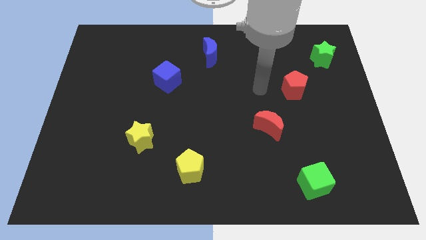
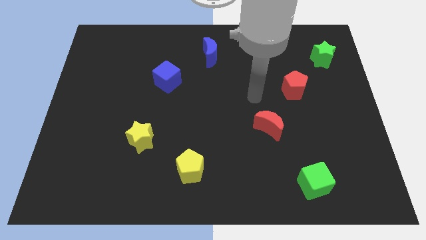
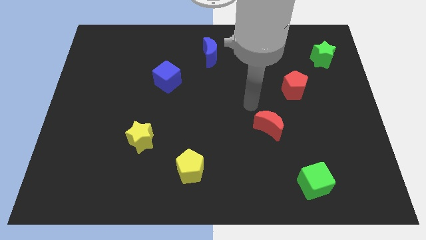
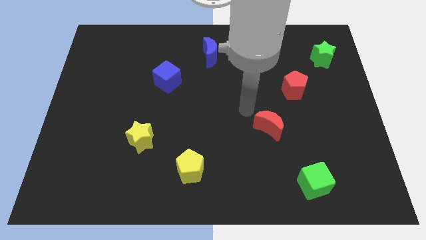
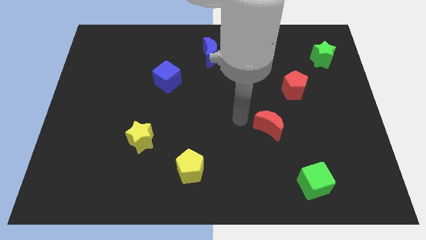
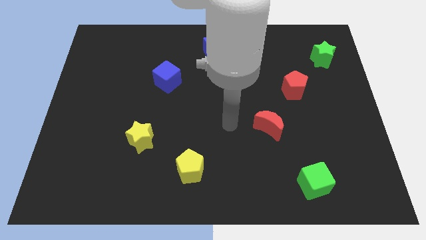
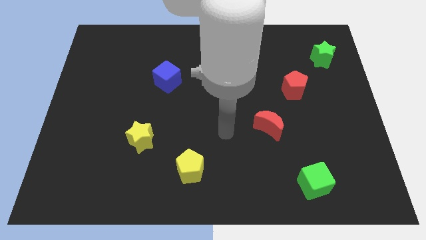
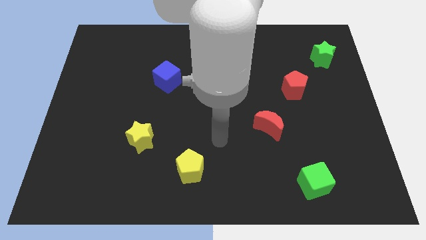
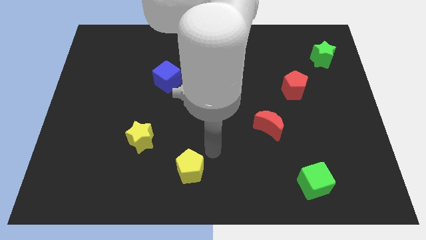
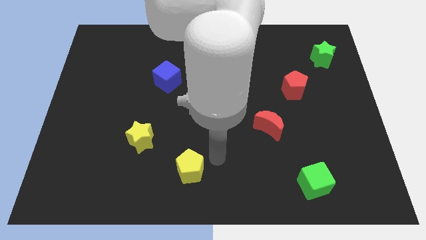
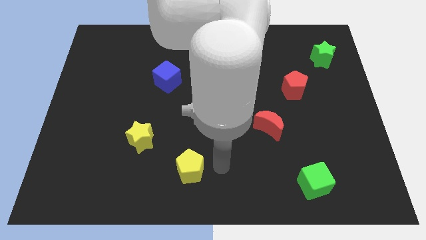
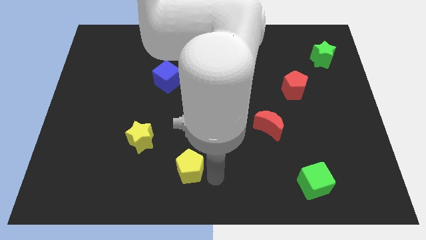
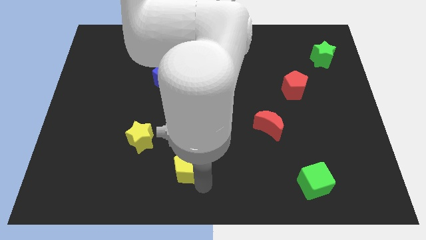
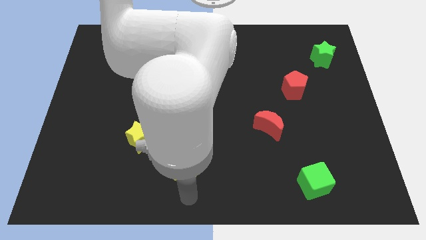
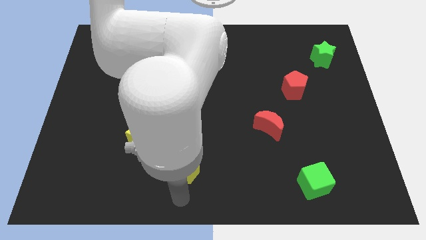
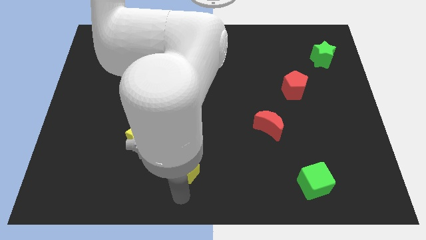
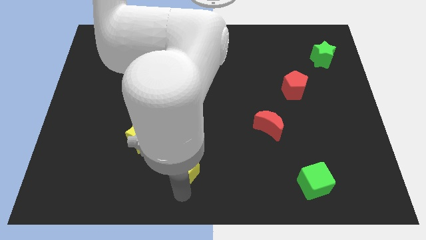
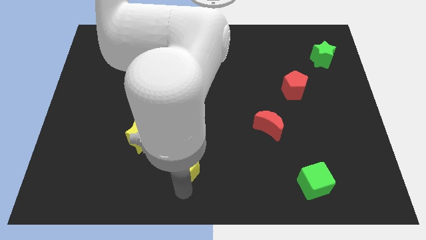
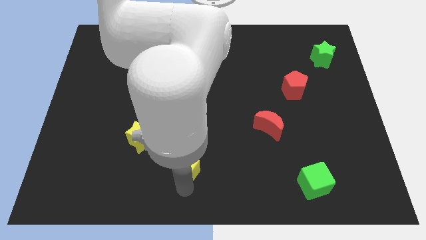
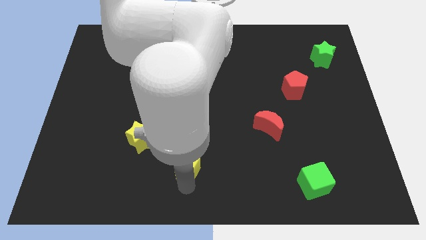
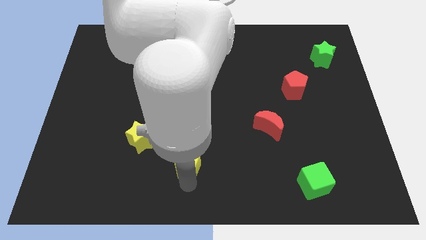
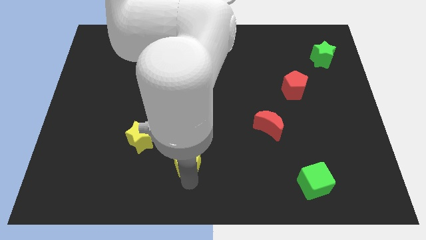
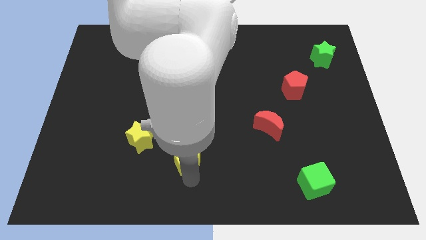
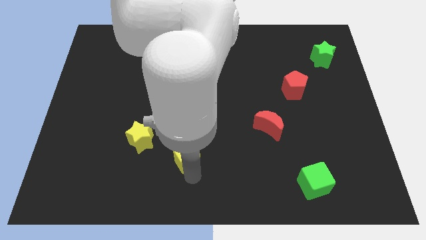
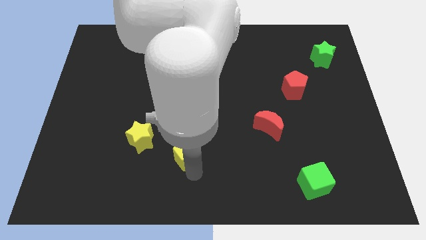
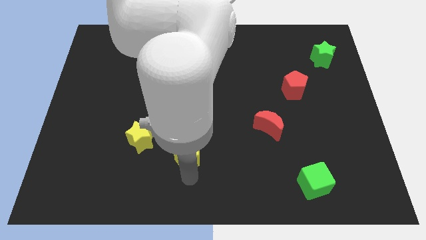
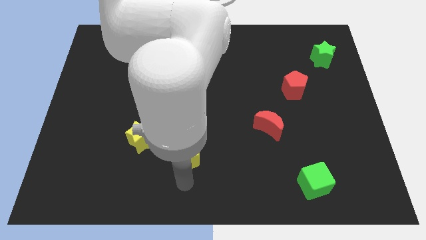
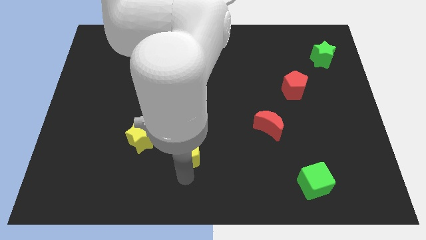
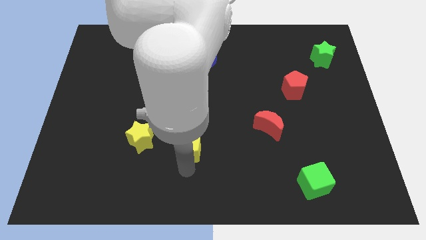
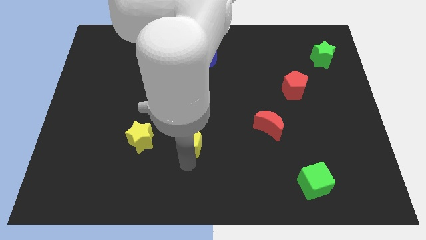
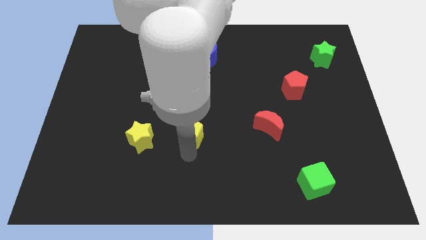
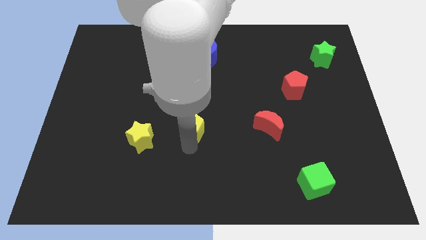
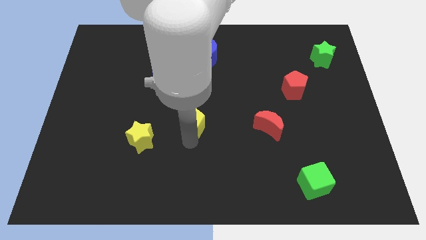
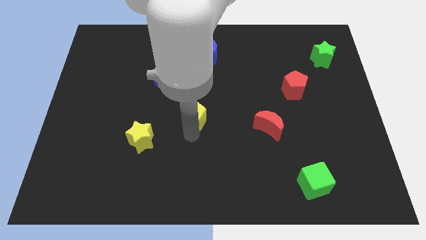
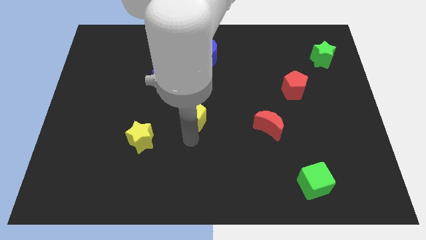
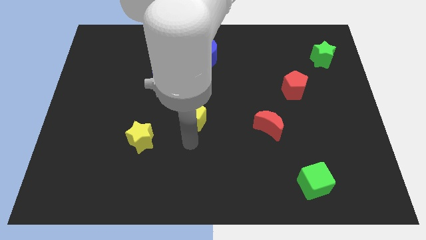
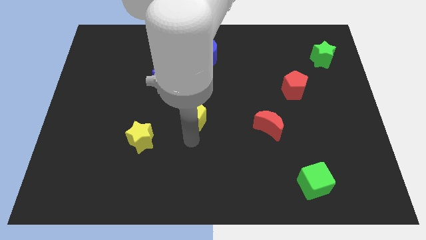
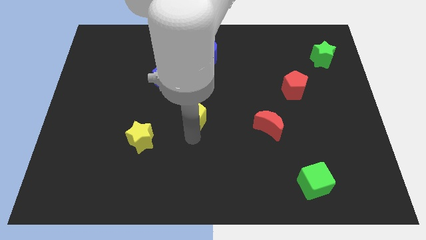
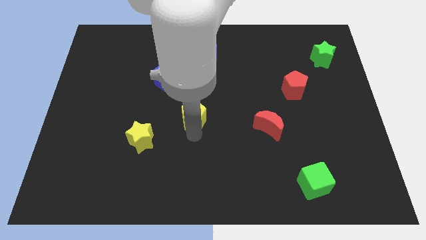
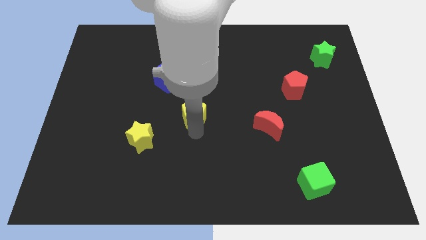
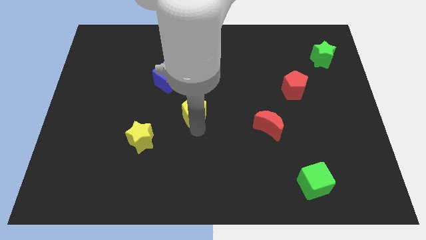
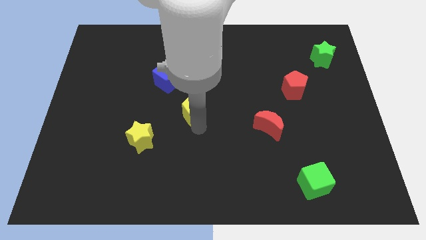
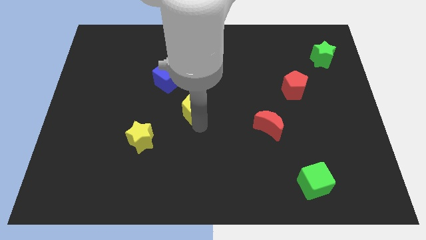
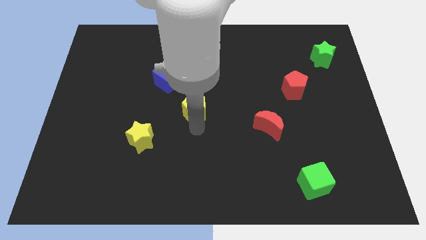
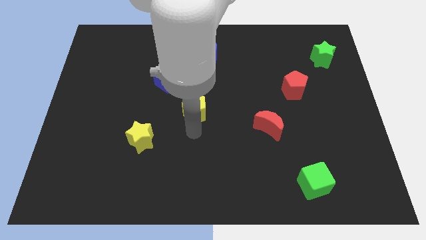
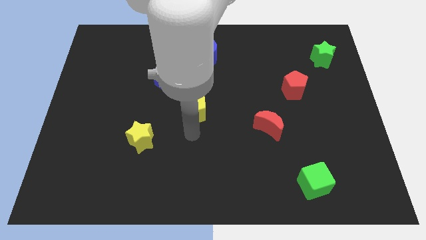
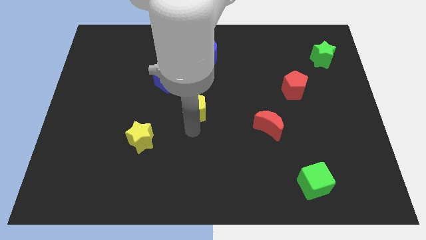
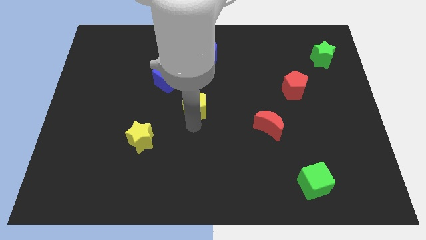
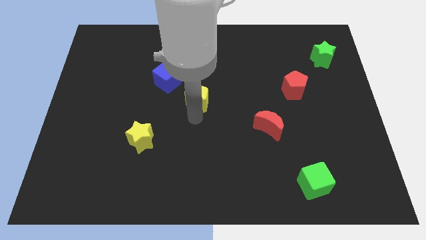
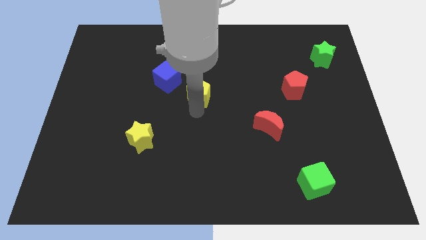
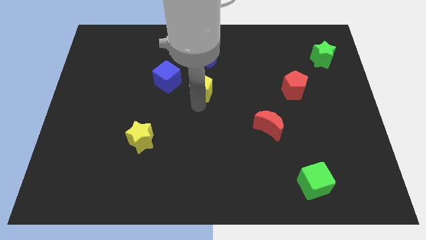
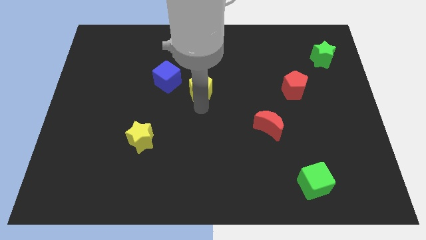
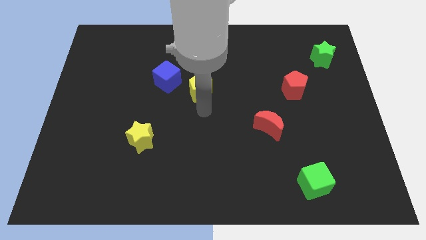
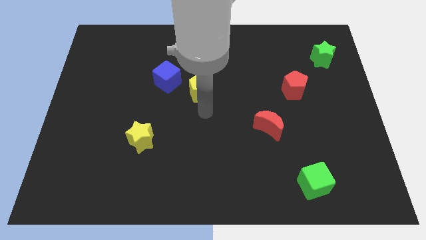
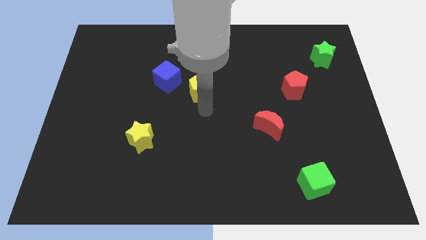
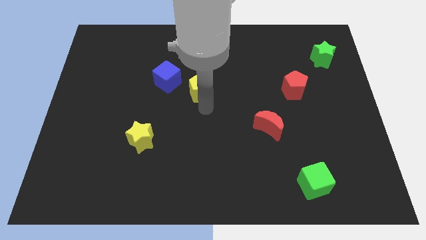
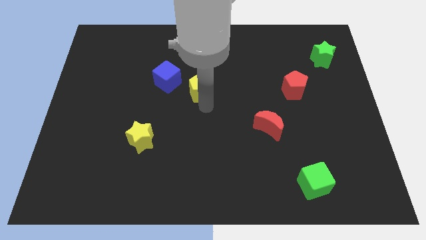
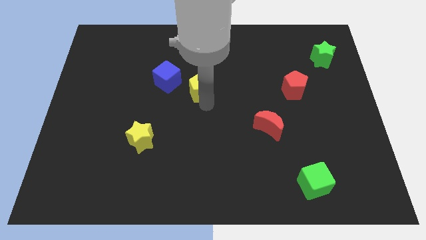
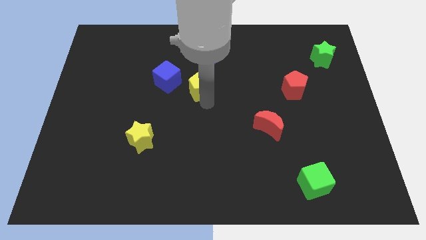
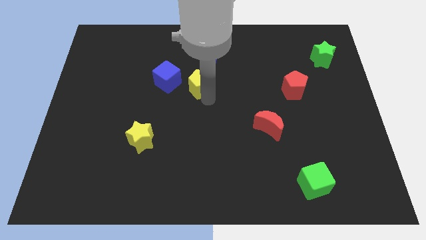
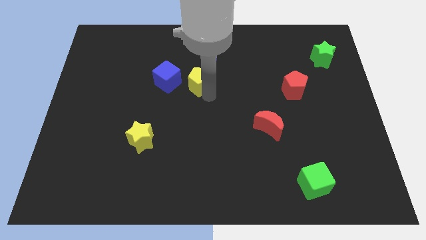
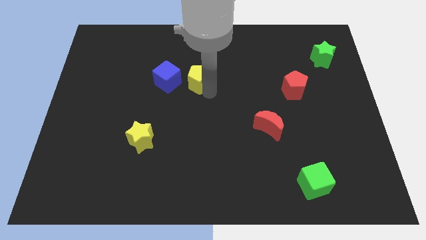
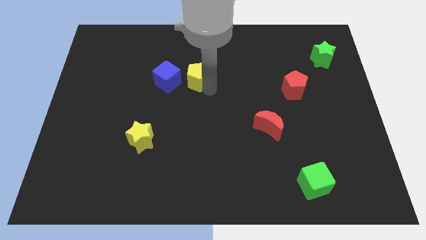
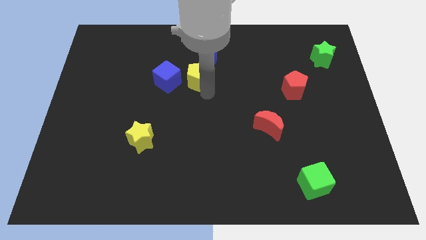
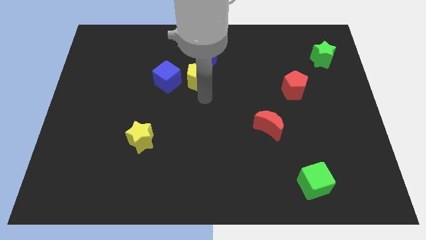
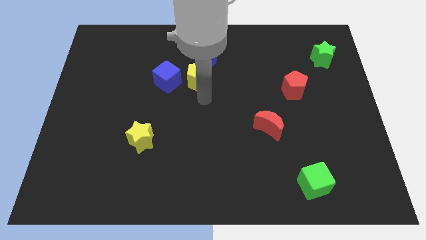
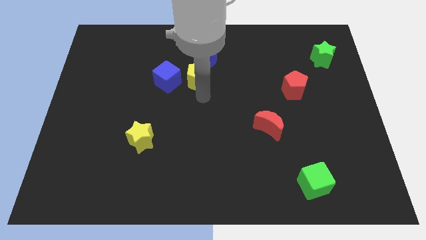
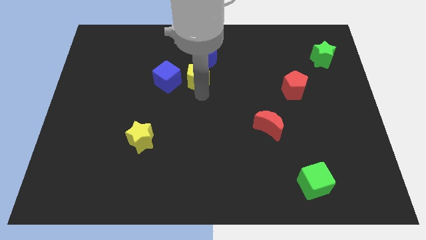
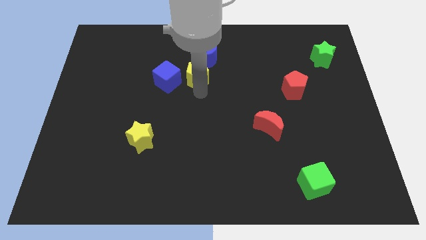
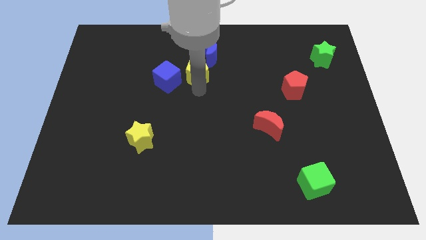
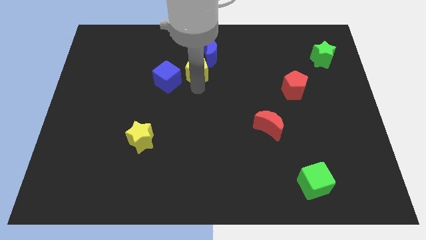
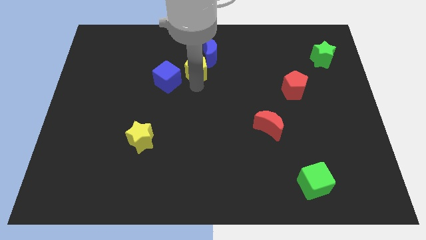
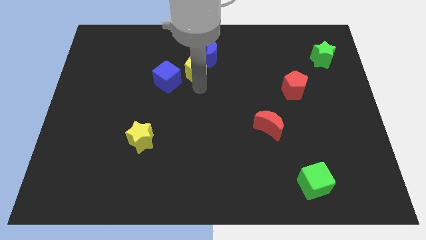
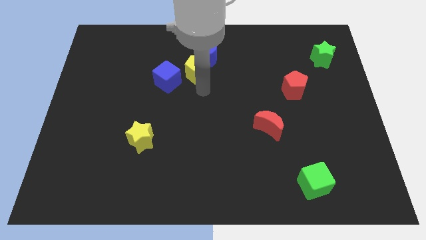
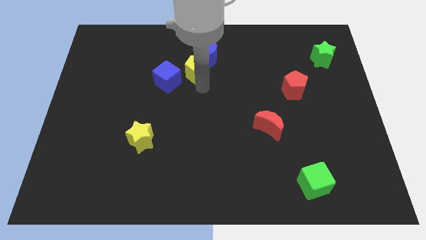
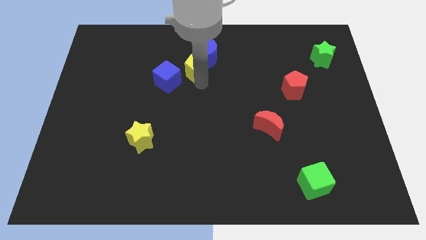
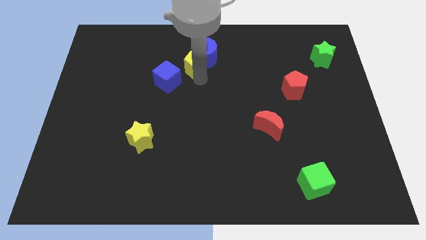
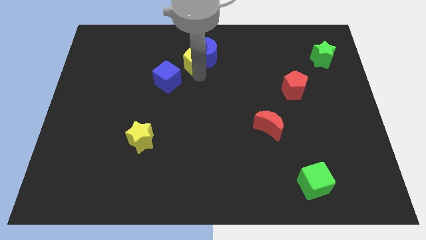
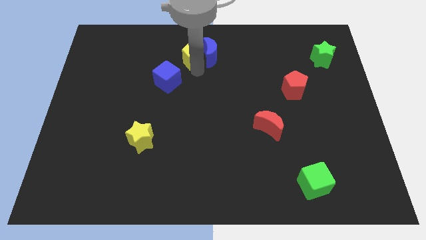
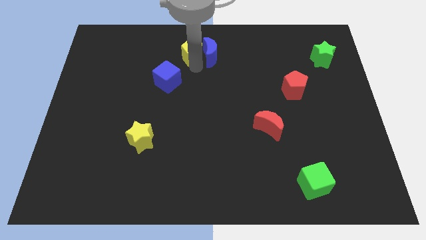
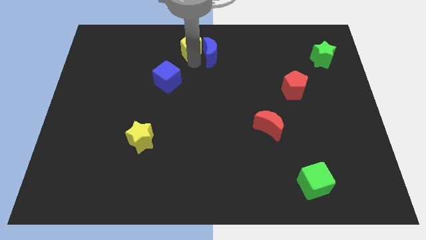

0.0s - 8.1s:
put the yellow pentagon to the towards your base
